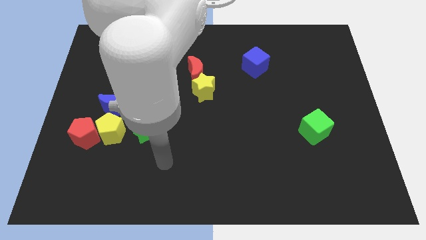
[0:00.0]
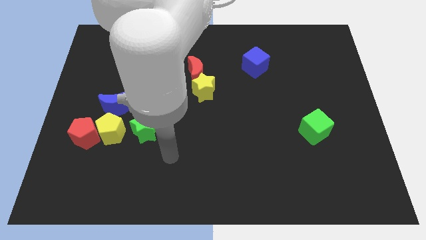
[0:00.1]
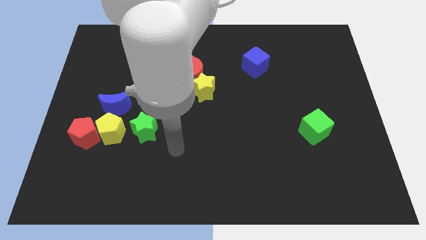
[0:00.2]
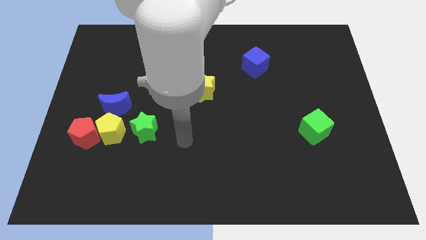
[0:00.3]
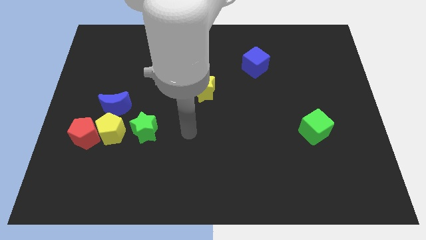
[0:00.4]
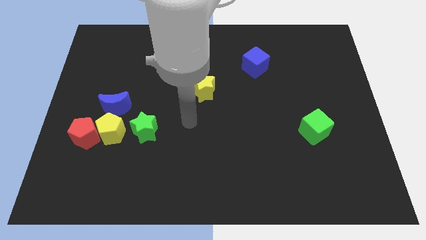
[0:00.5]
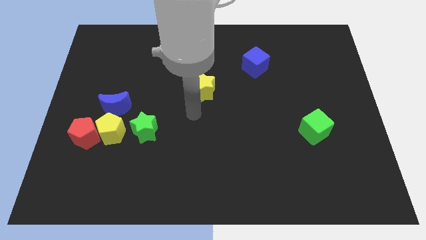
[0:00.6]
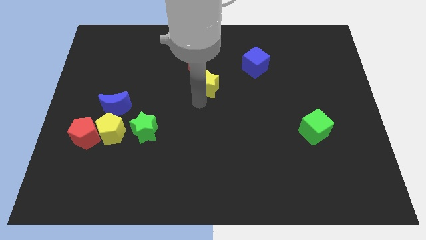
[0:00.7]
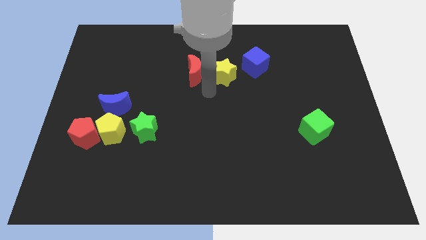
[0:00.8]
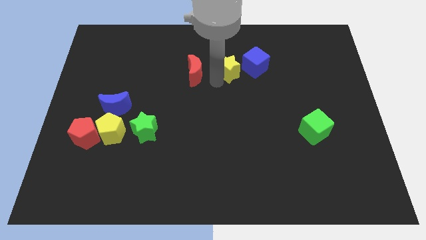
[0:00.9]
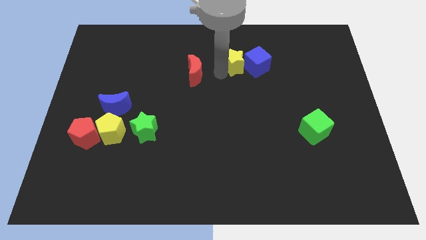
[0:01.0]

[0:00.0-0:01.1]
move the red moon away from the yellow star

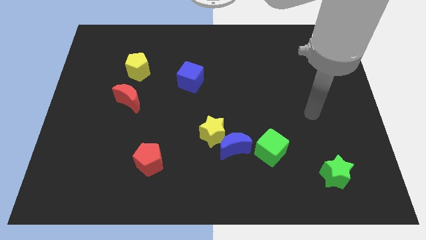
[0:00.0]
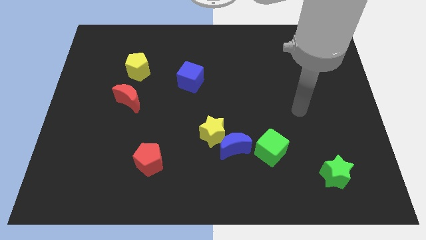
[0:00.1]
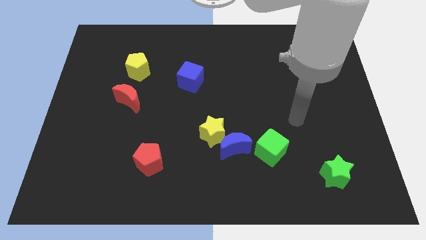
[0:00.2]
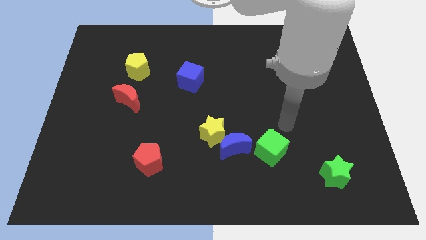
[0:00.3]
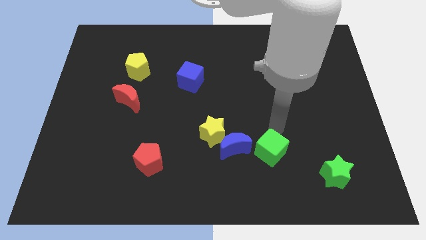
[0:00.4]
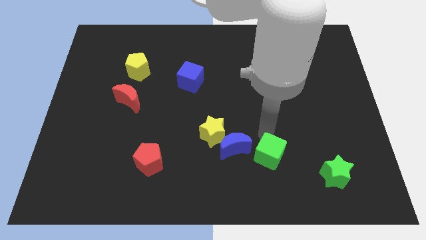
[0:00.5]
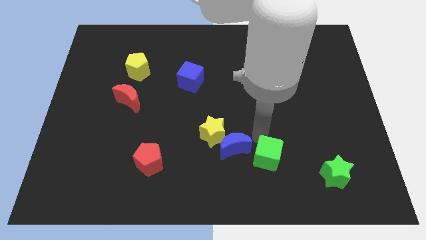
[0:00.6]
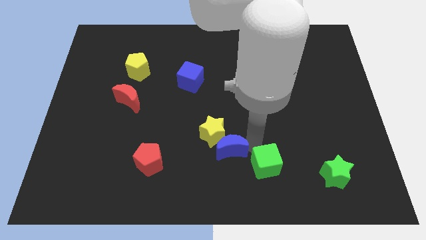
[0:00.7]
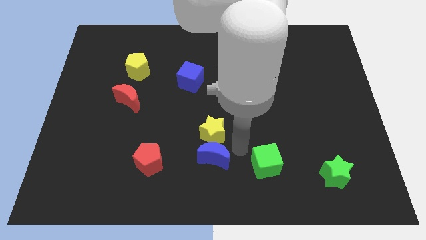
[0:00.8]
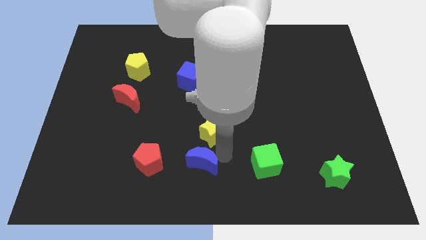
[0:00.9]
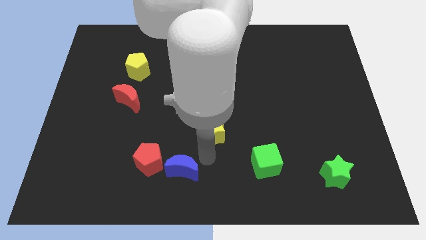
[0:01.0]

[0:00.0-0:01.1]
separate the yellow star from the blue moon

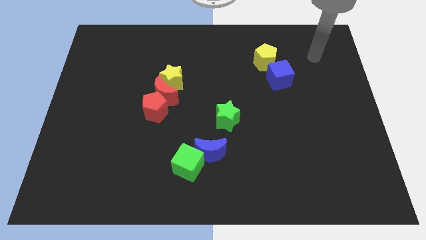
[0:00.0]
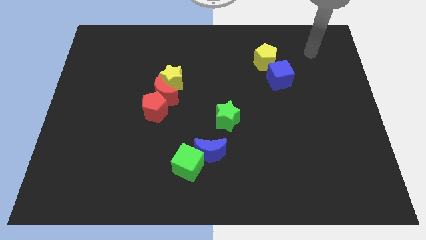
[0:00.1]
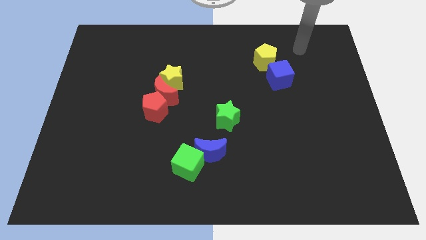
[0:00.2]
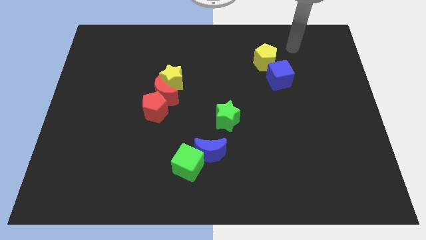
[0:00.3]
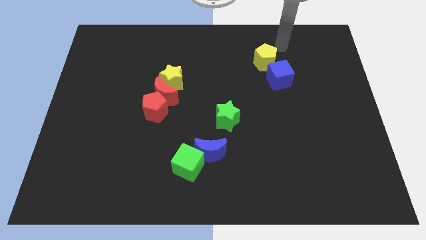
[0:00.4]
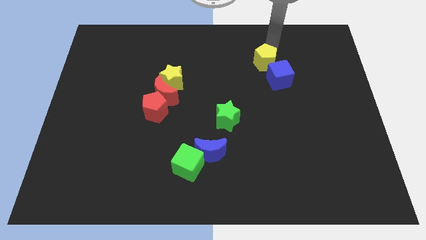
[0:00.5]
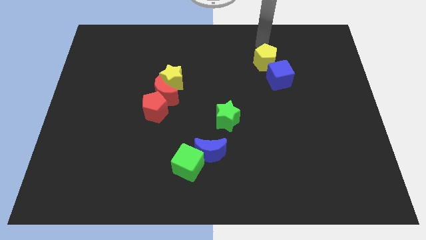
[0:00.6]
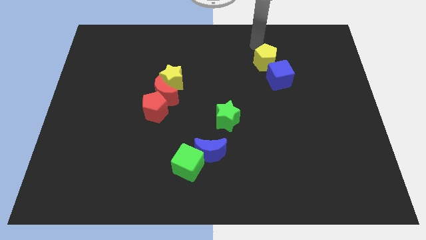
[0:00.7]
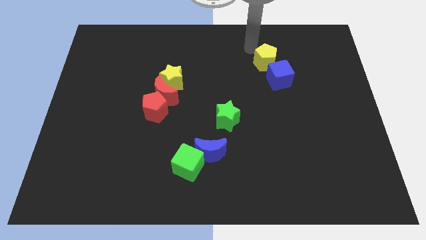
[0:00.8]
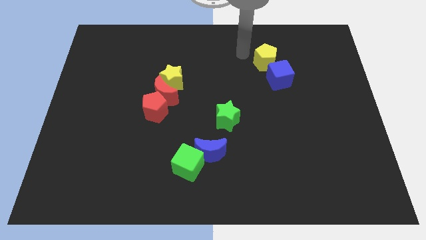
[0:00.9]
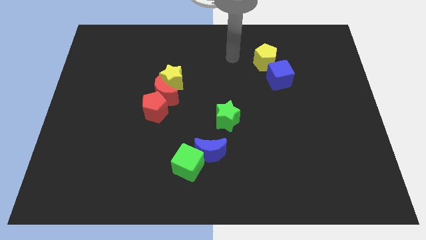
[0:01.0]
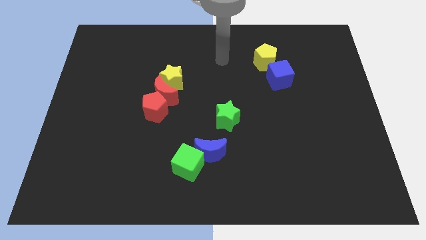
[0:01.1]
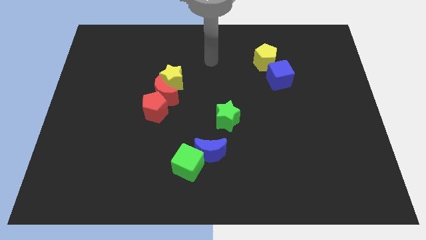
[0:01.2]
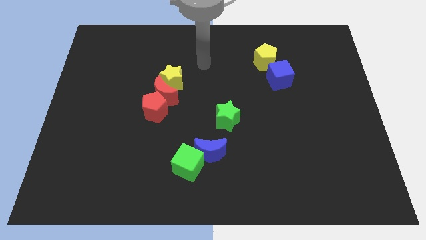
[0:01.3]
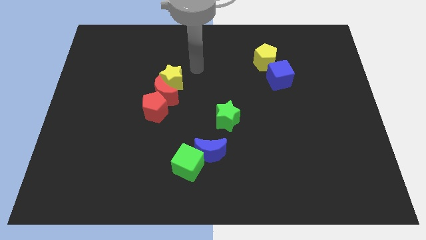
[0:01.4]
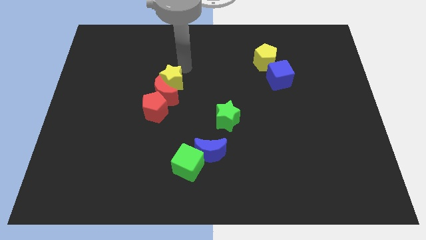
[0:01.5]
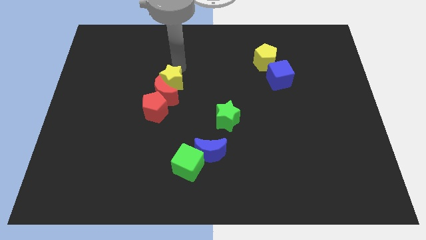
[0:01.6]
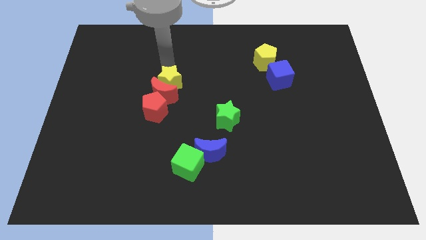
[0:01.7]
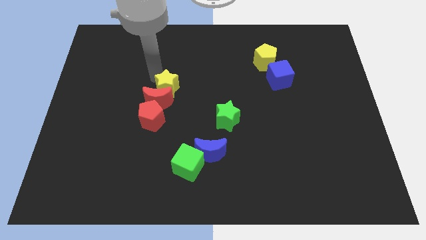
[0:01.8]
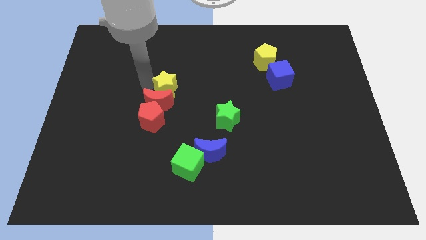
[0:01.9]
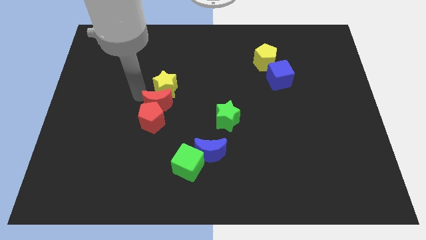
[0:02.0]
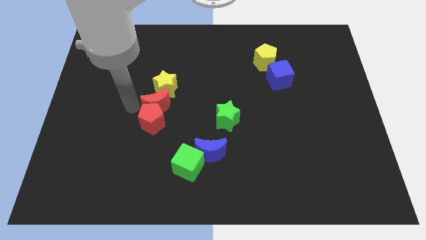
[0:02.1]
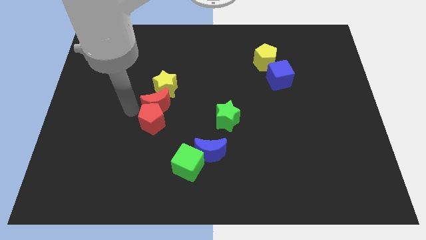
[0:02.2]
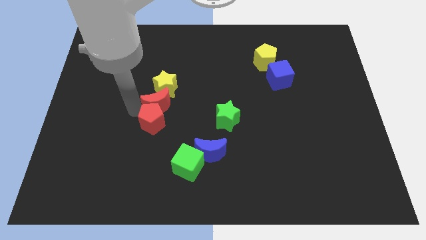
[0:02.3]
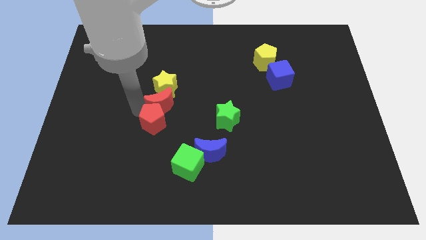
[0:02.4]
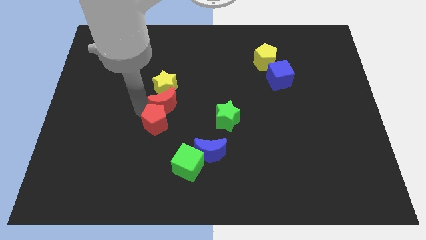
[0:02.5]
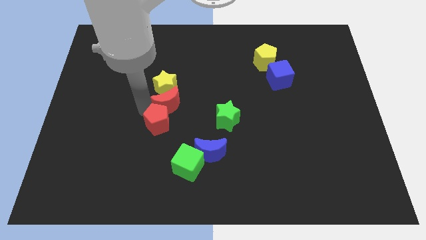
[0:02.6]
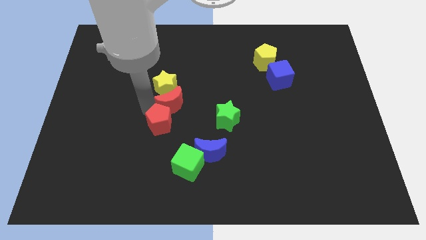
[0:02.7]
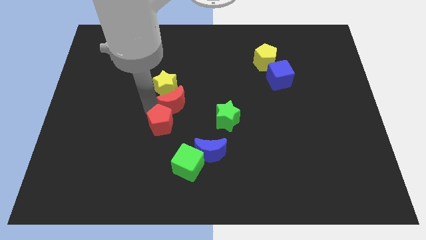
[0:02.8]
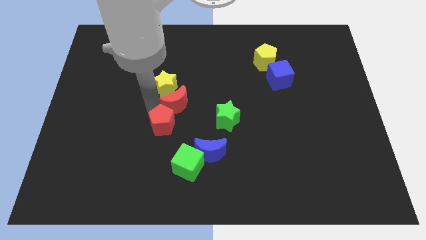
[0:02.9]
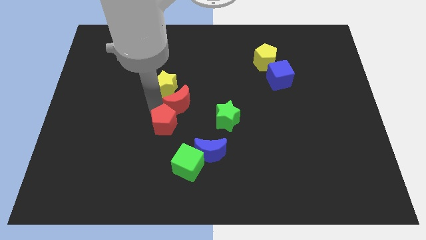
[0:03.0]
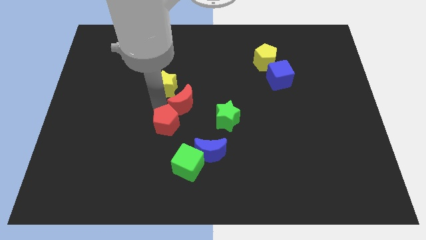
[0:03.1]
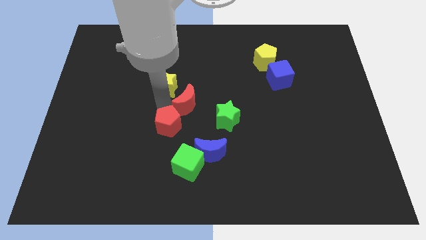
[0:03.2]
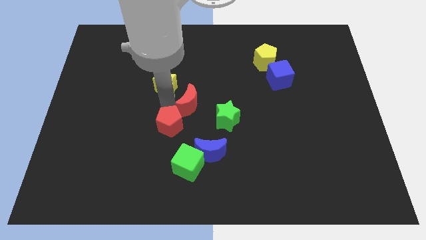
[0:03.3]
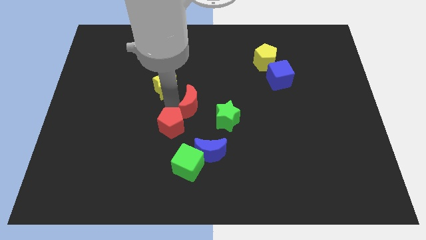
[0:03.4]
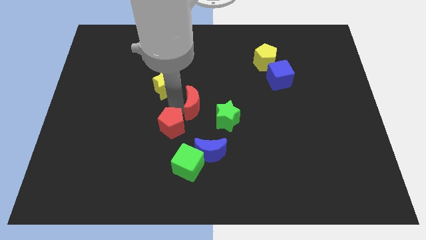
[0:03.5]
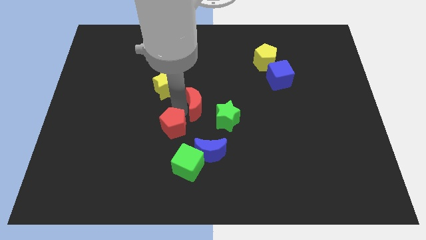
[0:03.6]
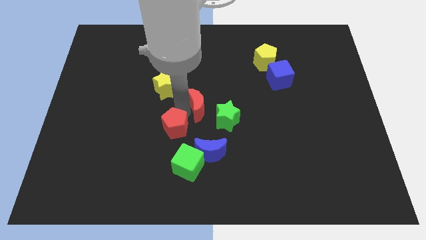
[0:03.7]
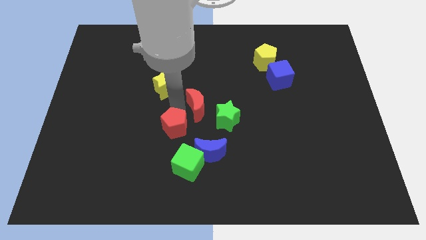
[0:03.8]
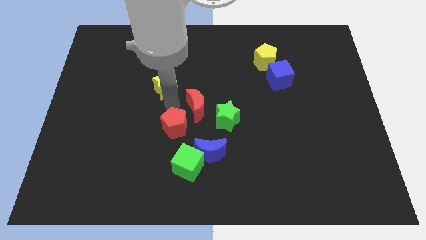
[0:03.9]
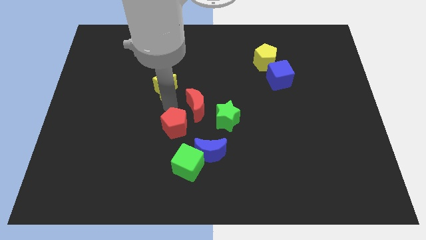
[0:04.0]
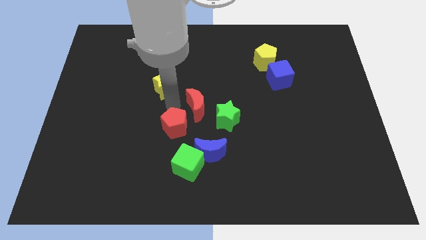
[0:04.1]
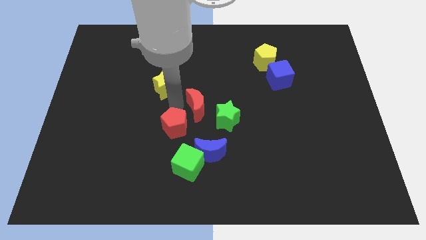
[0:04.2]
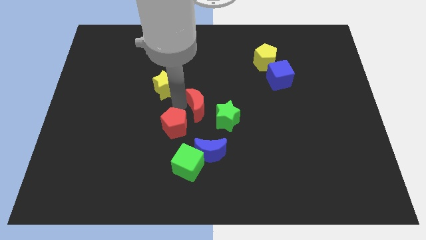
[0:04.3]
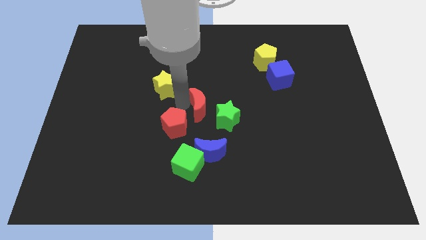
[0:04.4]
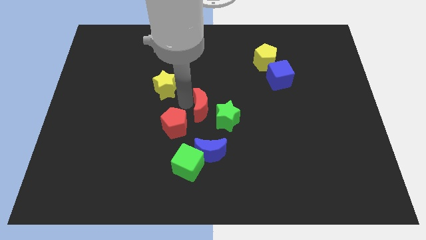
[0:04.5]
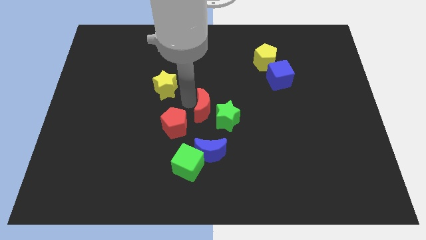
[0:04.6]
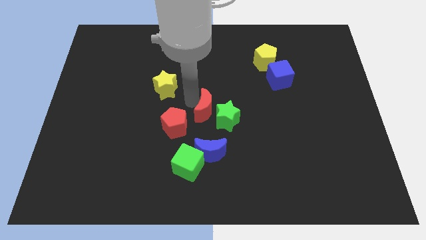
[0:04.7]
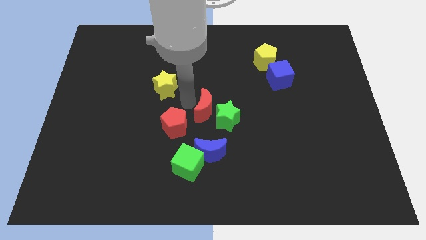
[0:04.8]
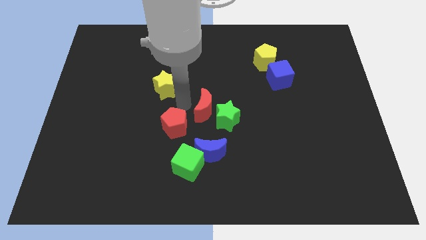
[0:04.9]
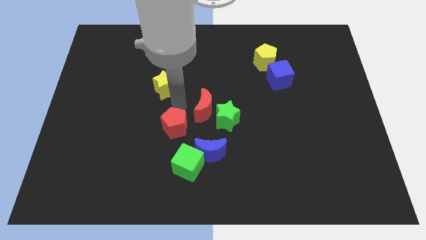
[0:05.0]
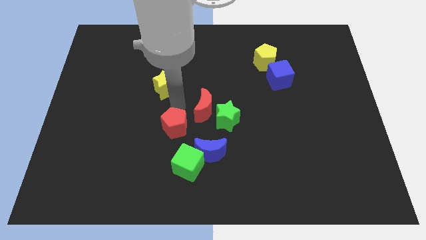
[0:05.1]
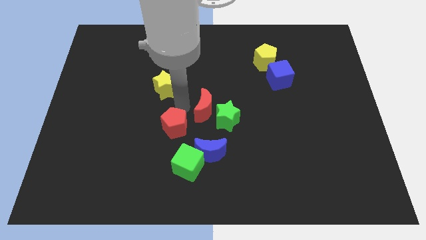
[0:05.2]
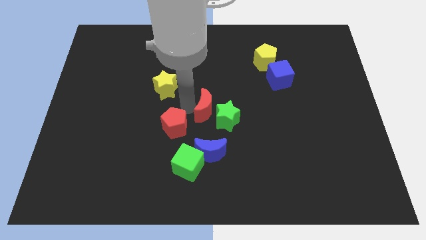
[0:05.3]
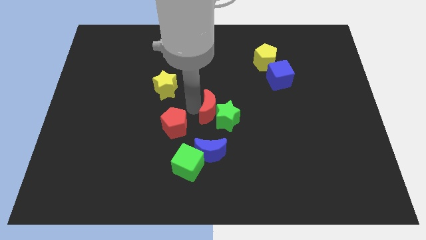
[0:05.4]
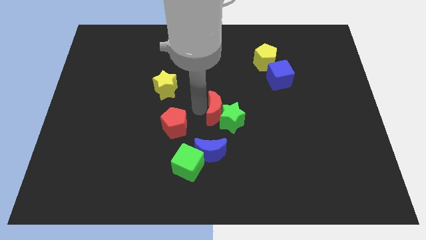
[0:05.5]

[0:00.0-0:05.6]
move the red moon away from the yellow star and red pentagon

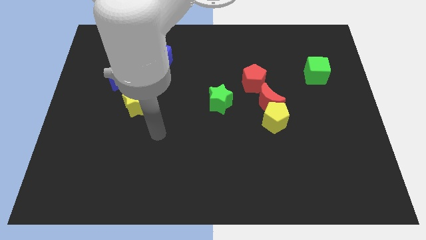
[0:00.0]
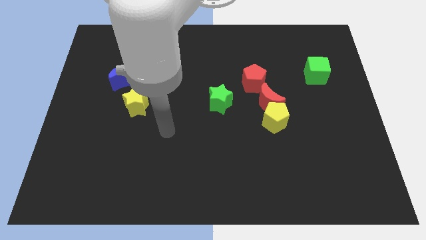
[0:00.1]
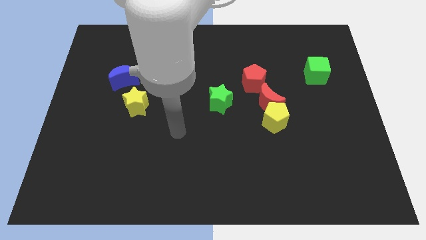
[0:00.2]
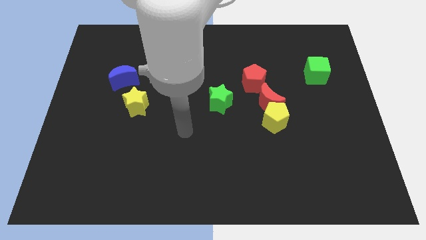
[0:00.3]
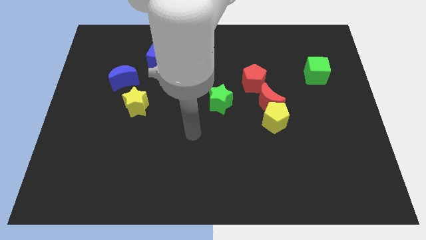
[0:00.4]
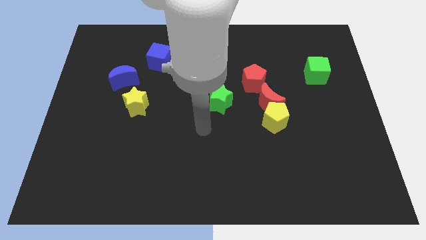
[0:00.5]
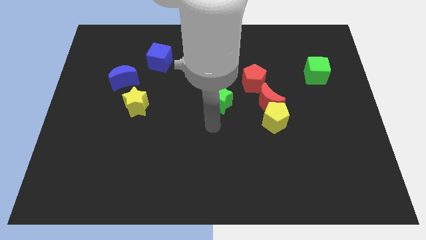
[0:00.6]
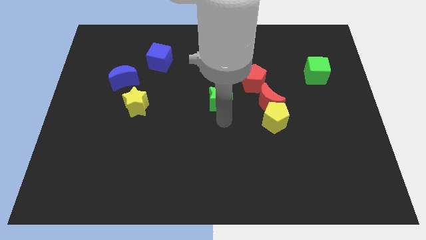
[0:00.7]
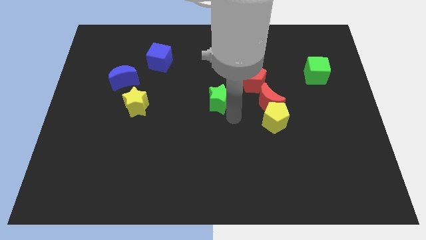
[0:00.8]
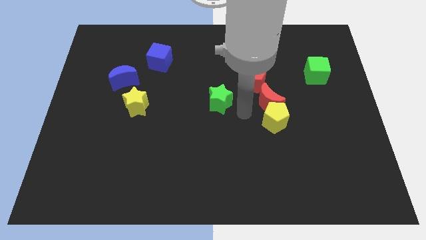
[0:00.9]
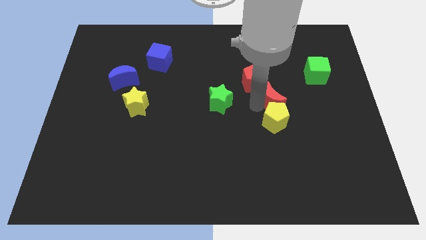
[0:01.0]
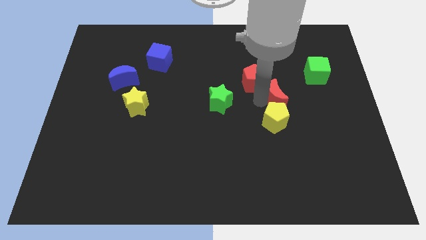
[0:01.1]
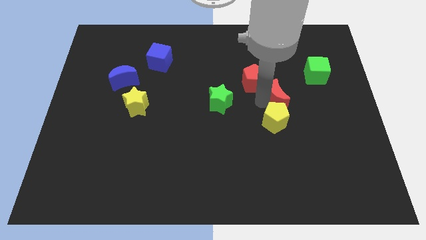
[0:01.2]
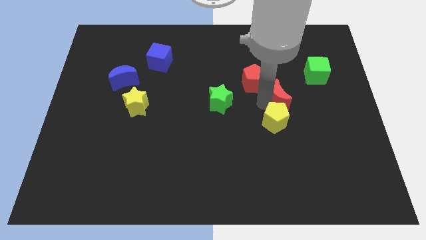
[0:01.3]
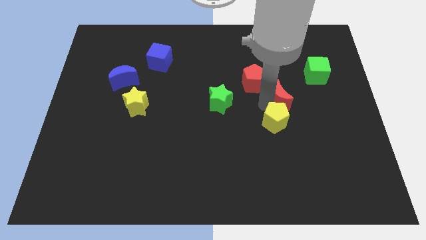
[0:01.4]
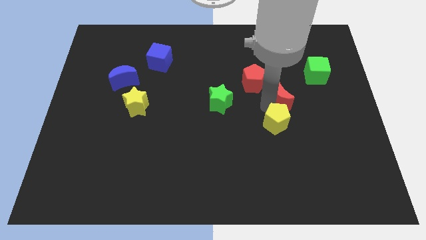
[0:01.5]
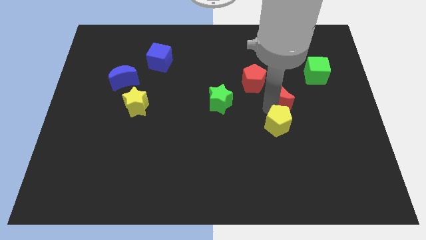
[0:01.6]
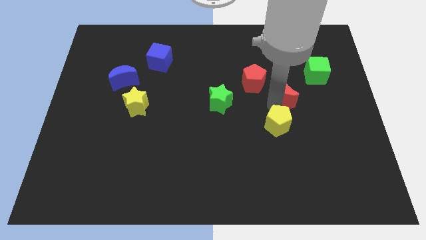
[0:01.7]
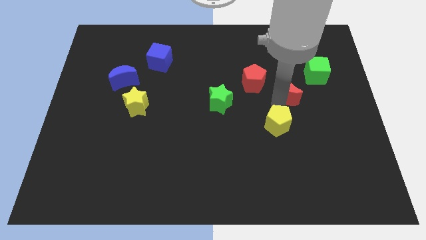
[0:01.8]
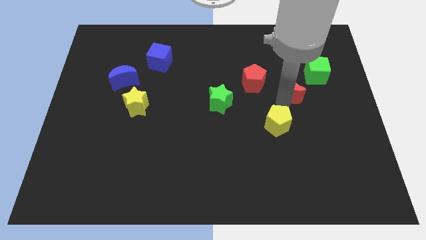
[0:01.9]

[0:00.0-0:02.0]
pull the yellow pentagon apart from the red moon
